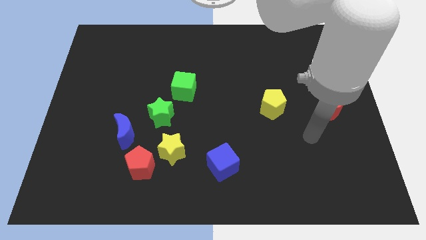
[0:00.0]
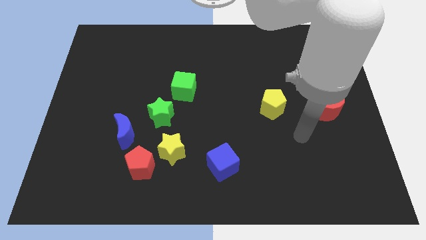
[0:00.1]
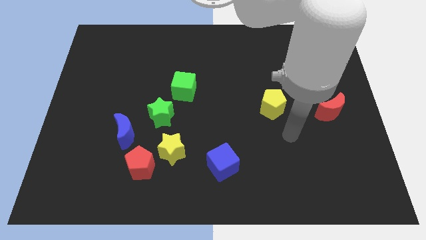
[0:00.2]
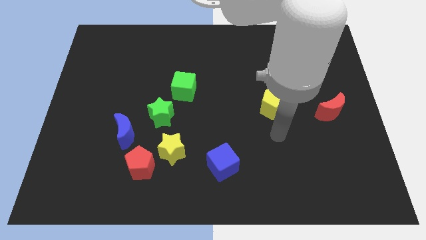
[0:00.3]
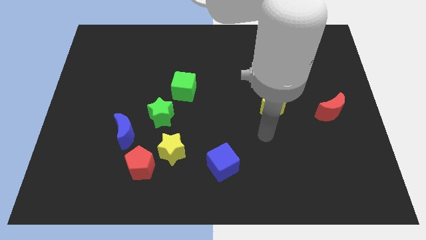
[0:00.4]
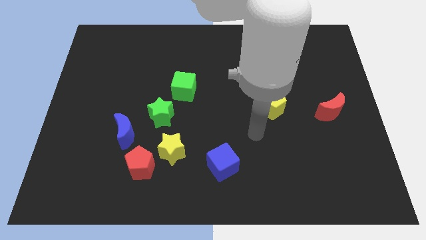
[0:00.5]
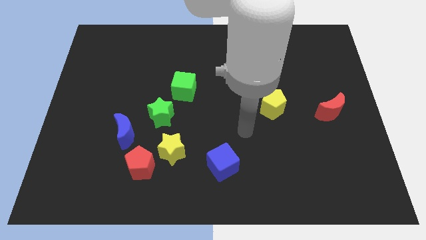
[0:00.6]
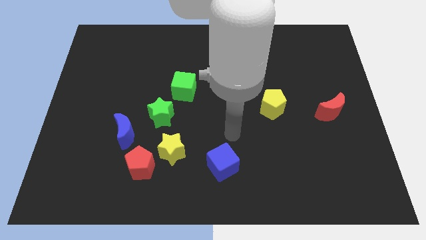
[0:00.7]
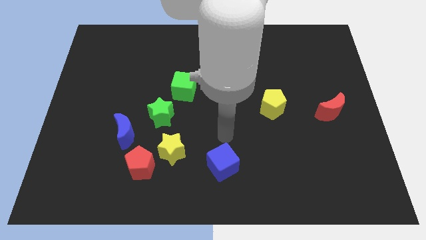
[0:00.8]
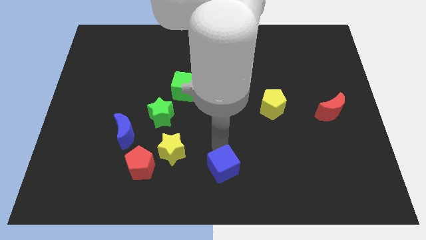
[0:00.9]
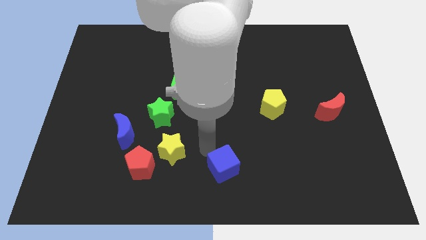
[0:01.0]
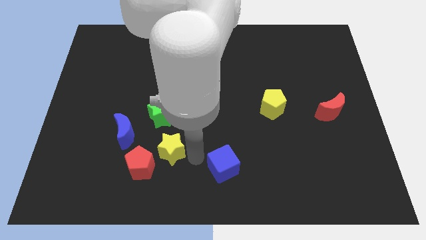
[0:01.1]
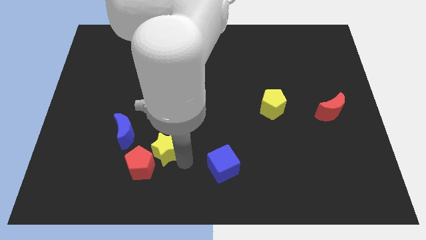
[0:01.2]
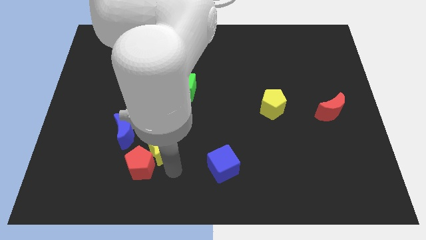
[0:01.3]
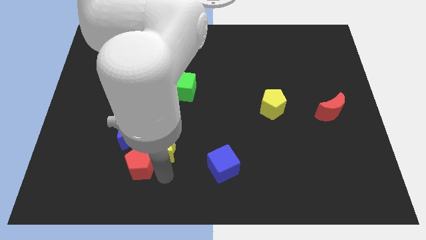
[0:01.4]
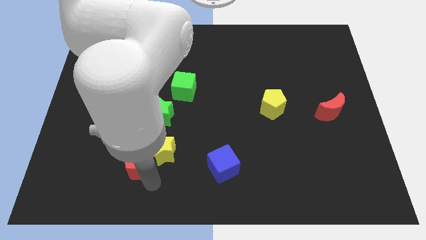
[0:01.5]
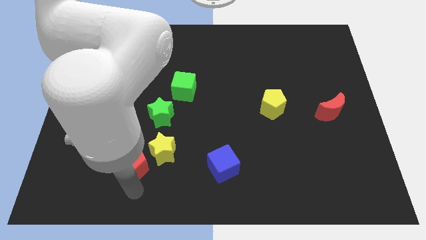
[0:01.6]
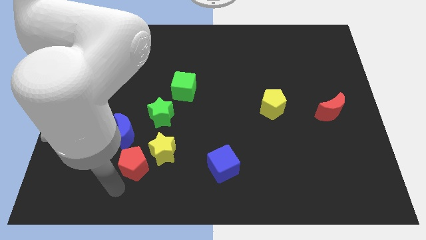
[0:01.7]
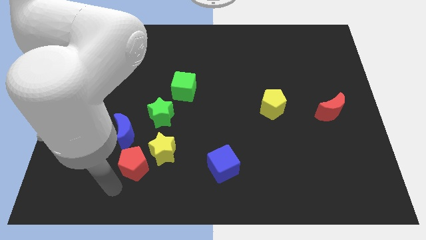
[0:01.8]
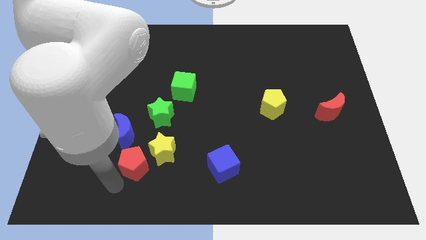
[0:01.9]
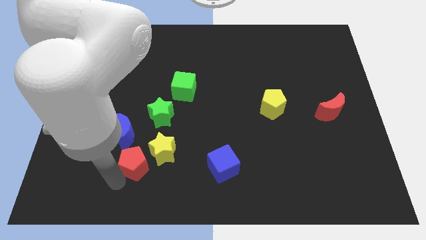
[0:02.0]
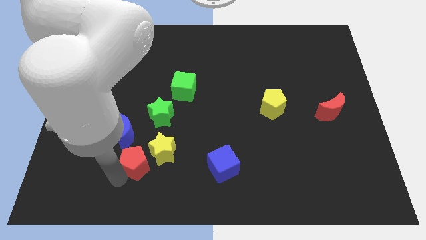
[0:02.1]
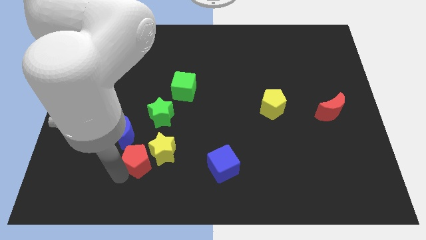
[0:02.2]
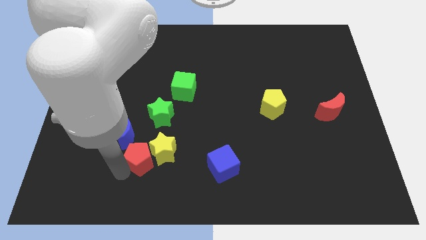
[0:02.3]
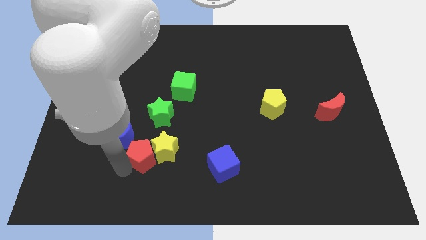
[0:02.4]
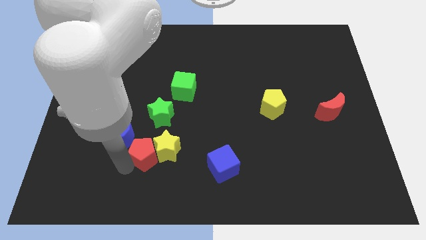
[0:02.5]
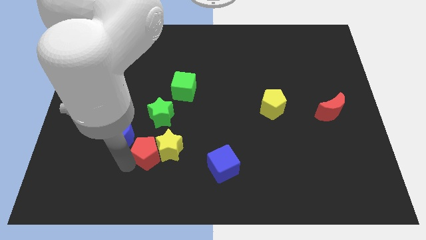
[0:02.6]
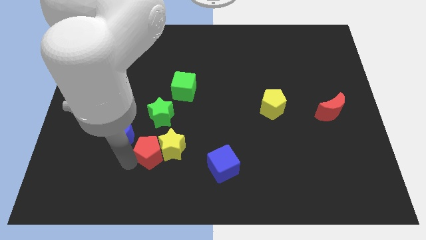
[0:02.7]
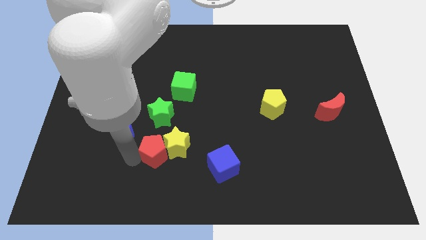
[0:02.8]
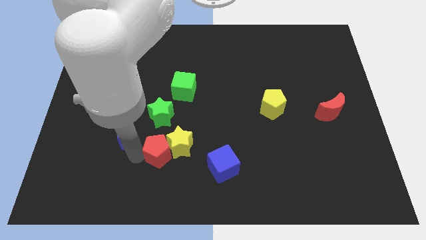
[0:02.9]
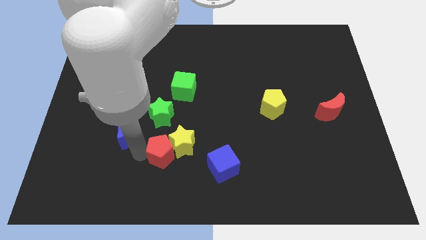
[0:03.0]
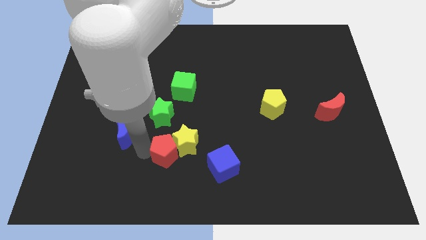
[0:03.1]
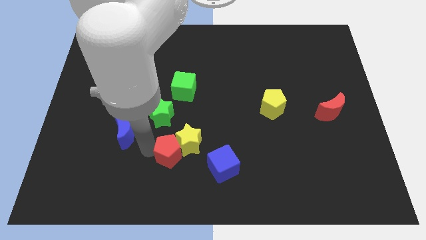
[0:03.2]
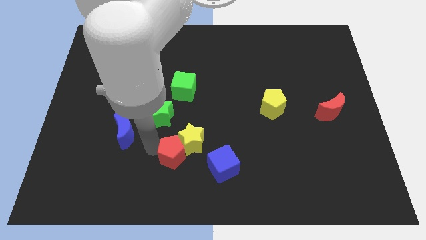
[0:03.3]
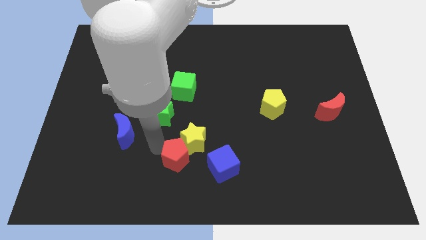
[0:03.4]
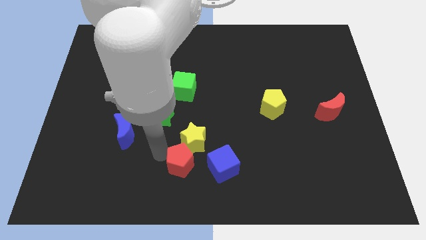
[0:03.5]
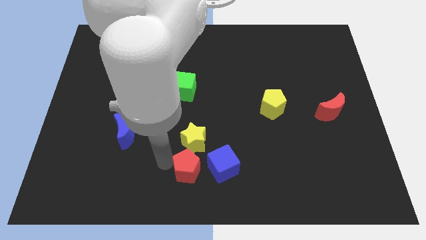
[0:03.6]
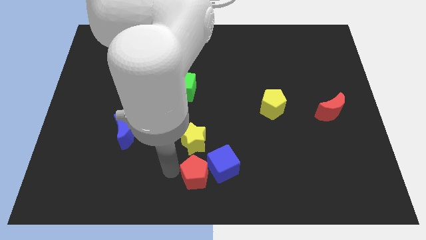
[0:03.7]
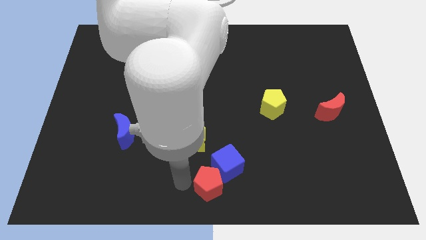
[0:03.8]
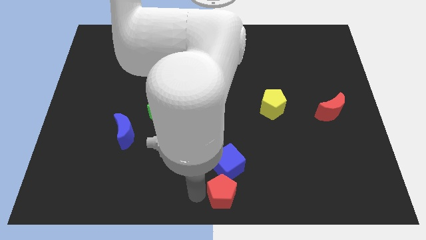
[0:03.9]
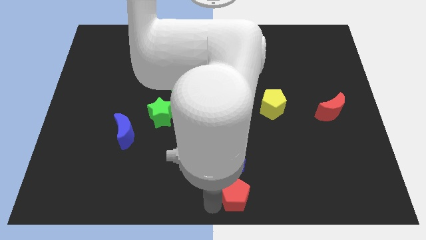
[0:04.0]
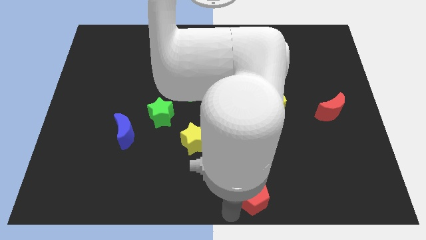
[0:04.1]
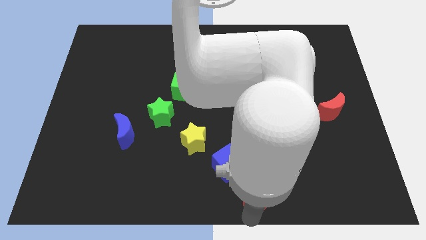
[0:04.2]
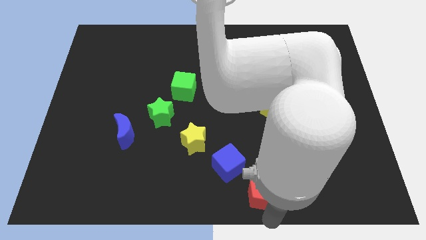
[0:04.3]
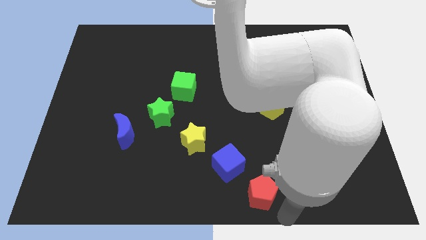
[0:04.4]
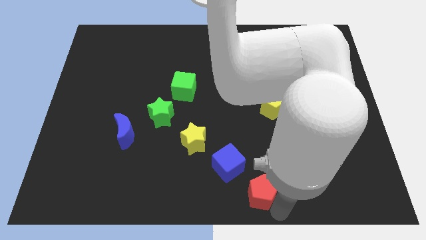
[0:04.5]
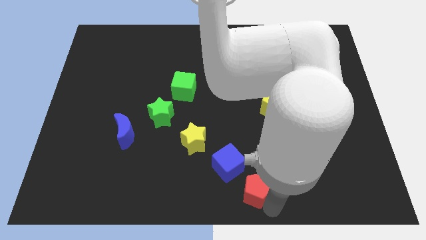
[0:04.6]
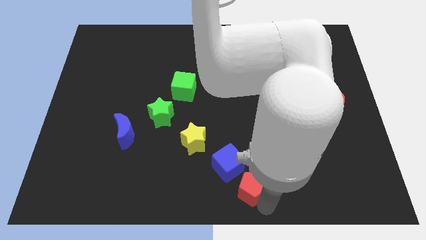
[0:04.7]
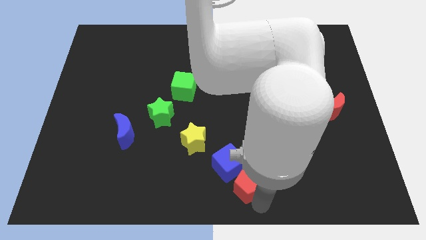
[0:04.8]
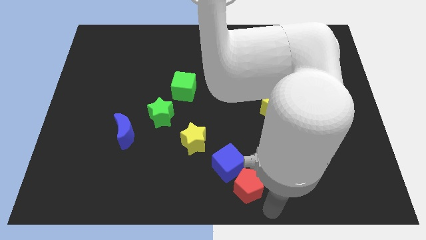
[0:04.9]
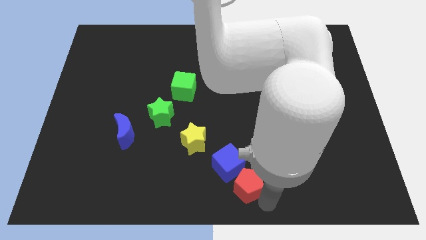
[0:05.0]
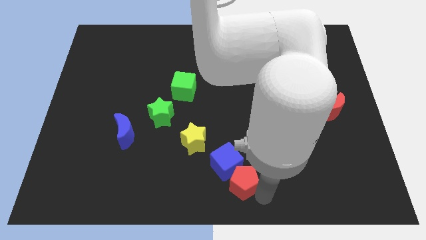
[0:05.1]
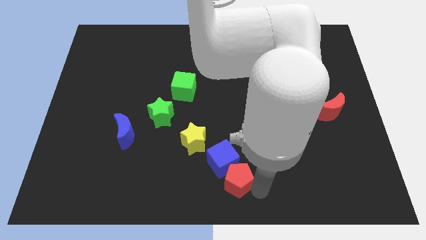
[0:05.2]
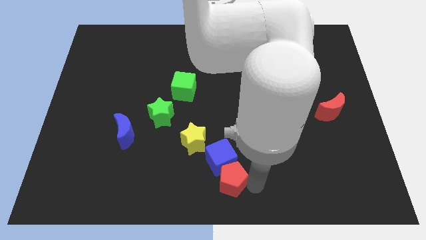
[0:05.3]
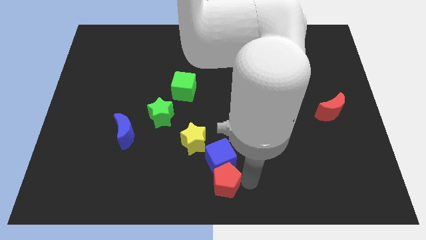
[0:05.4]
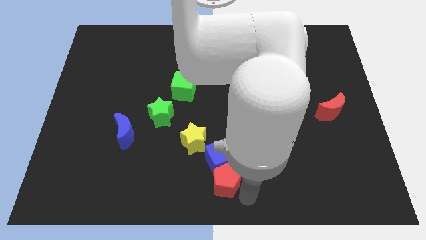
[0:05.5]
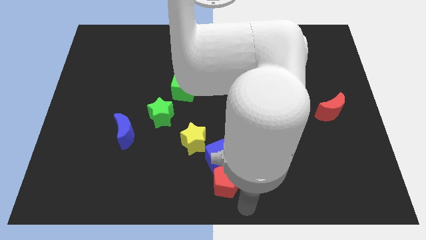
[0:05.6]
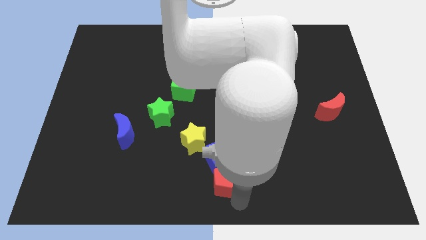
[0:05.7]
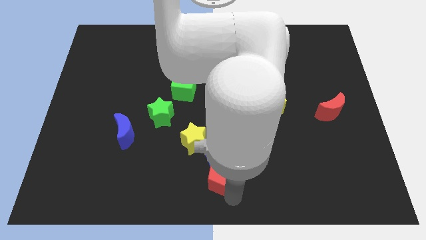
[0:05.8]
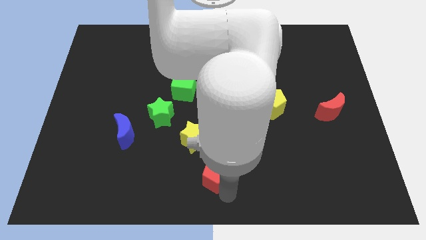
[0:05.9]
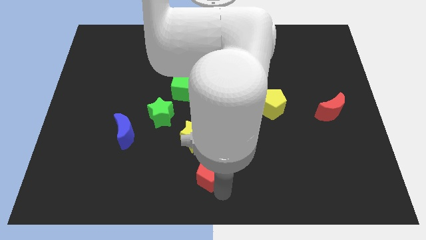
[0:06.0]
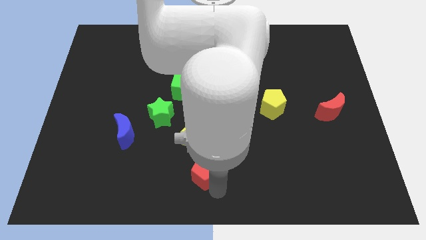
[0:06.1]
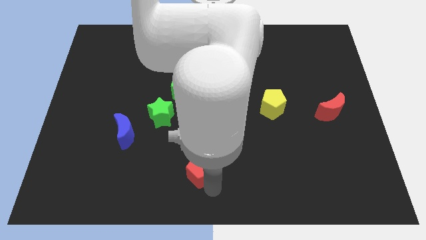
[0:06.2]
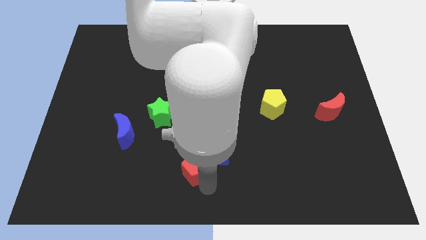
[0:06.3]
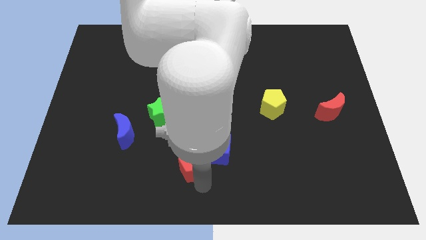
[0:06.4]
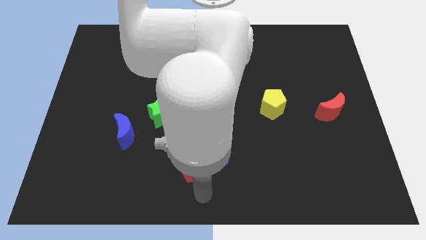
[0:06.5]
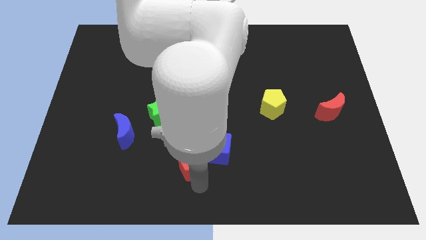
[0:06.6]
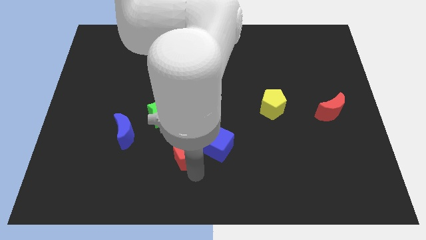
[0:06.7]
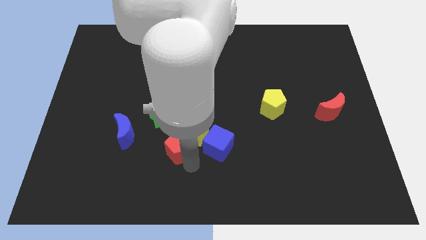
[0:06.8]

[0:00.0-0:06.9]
put the red pentagon to the bottom right side of the green star
